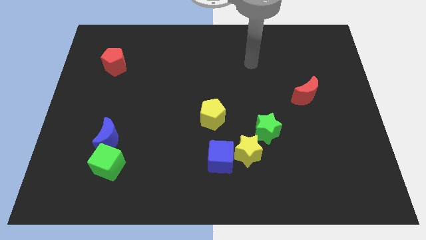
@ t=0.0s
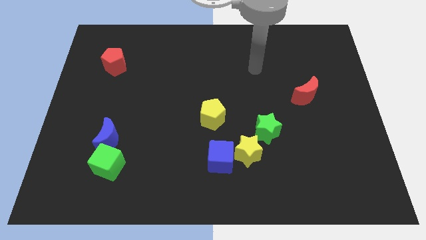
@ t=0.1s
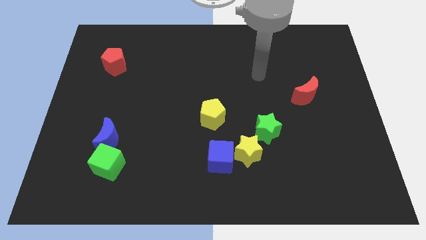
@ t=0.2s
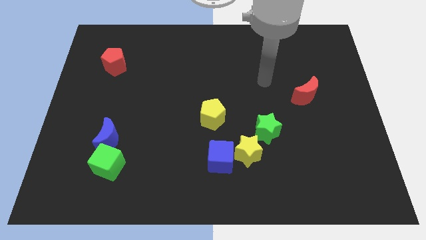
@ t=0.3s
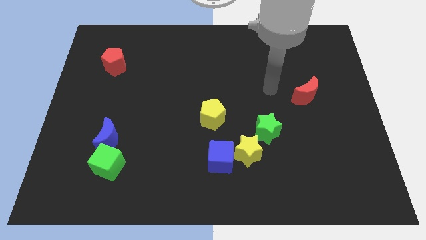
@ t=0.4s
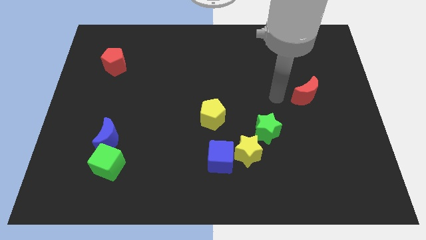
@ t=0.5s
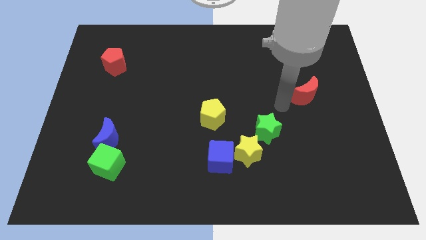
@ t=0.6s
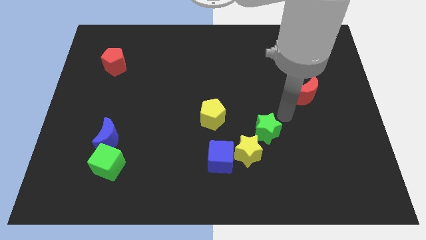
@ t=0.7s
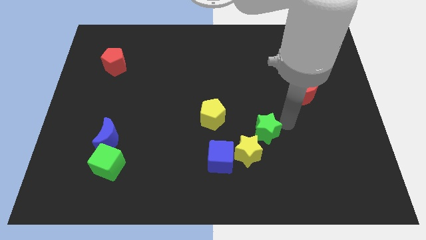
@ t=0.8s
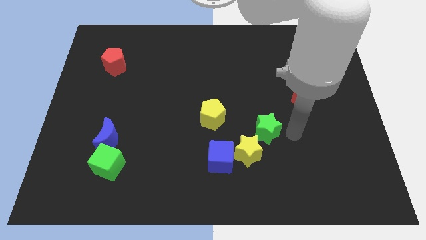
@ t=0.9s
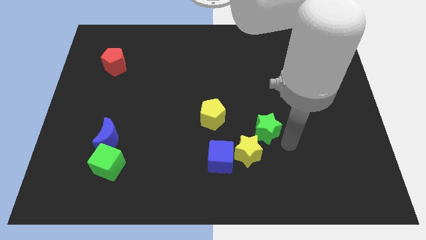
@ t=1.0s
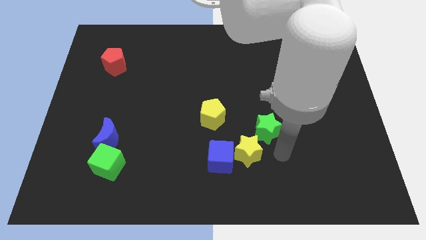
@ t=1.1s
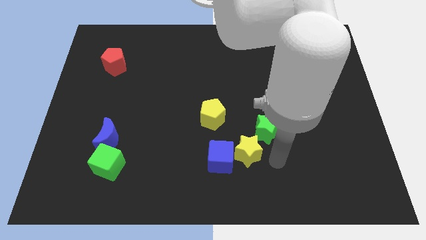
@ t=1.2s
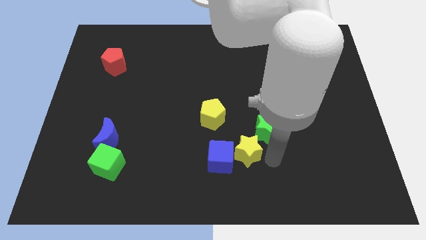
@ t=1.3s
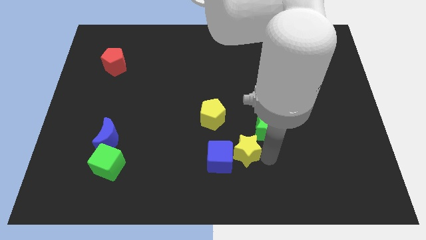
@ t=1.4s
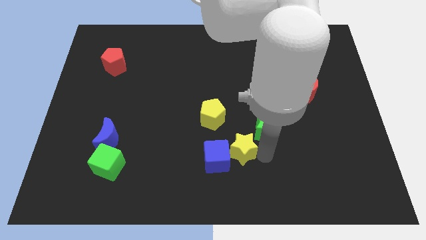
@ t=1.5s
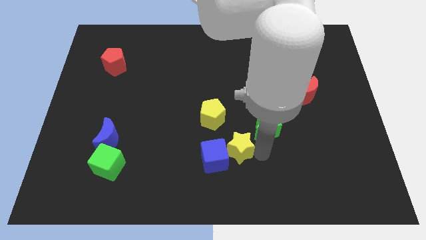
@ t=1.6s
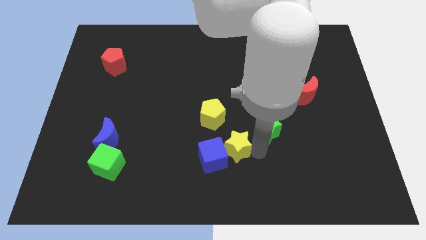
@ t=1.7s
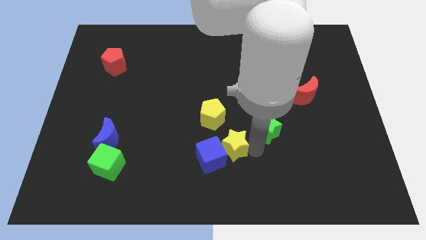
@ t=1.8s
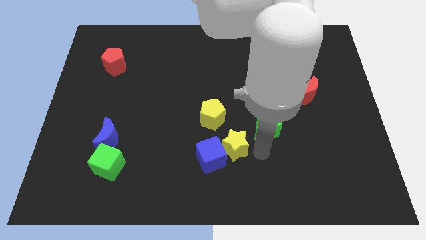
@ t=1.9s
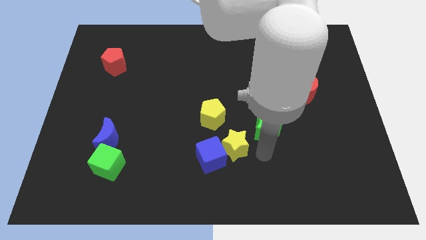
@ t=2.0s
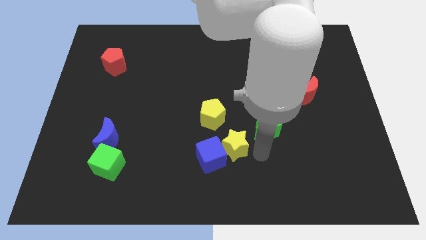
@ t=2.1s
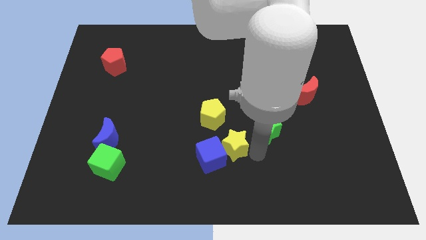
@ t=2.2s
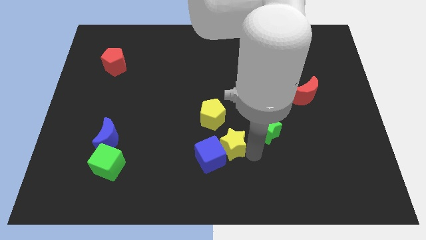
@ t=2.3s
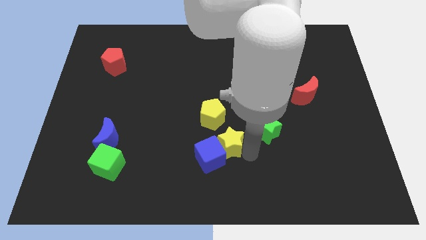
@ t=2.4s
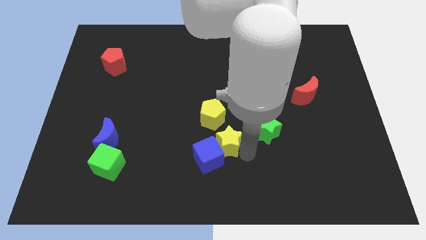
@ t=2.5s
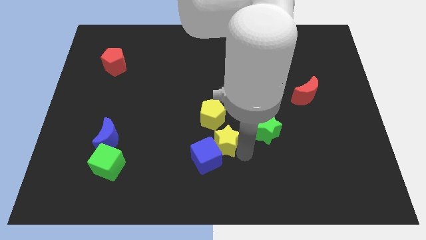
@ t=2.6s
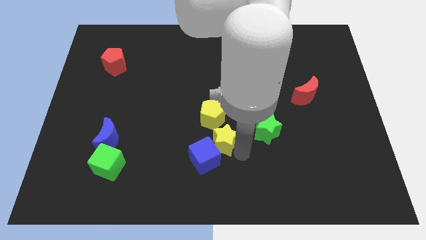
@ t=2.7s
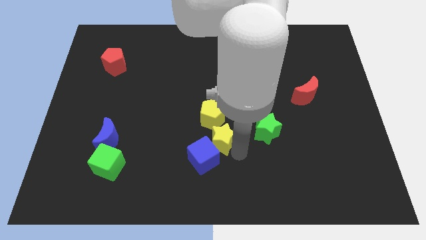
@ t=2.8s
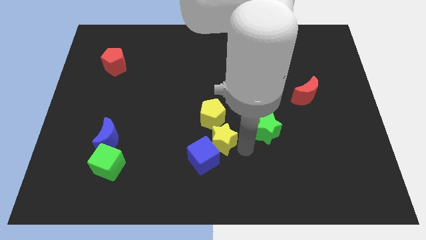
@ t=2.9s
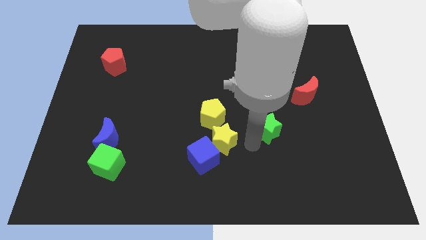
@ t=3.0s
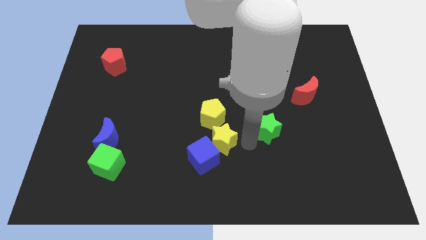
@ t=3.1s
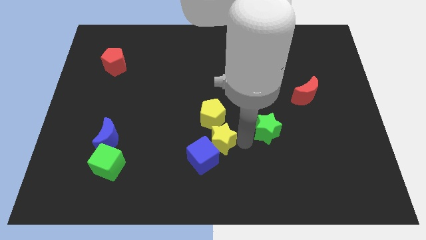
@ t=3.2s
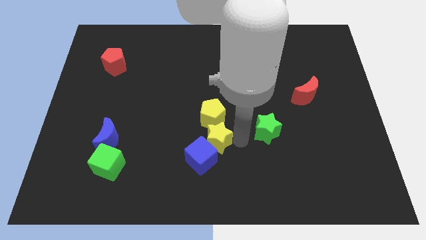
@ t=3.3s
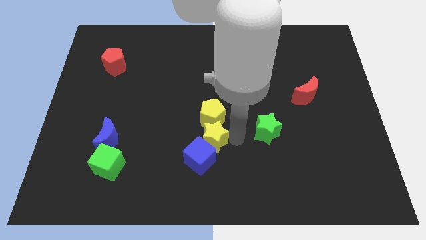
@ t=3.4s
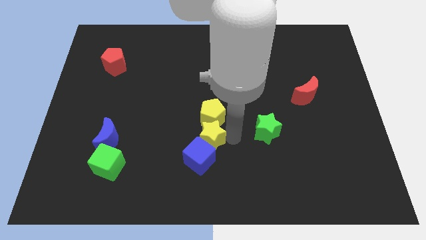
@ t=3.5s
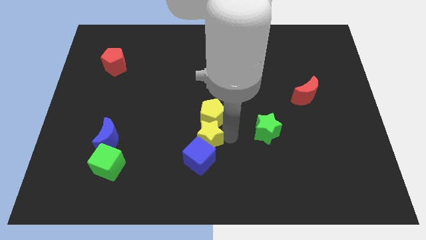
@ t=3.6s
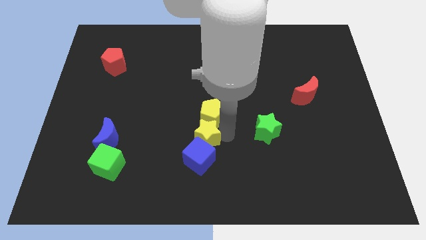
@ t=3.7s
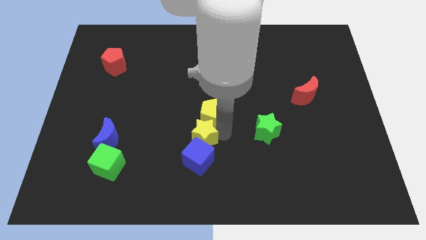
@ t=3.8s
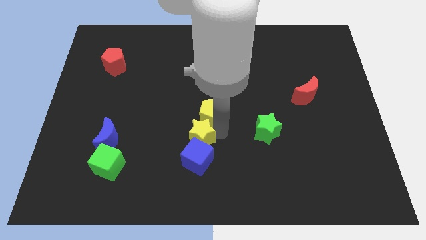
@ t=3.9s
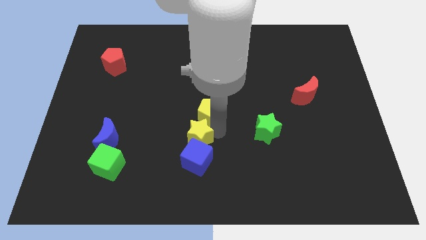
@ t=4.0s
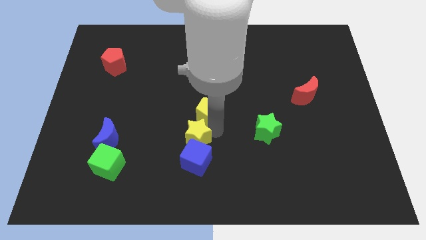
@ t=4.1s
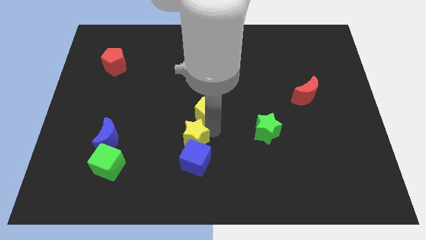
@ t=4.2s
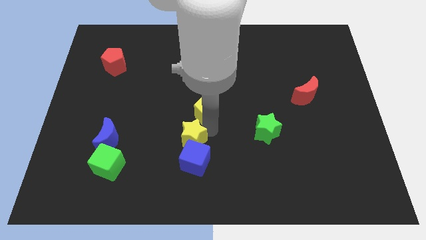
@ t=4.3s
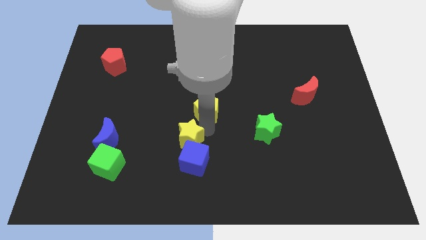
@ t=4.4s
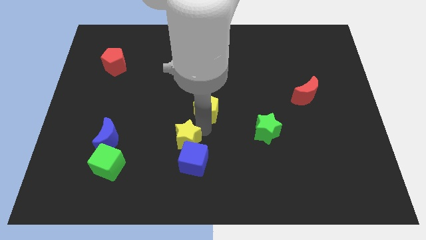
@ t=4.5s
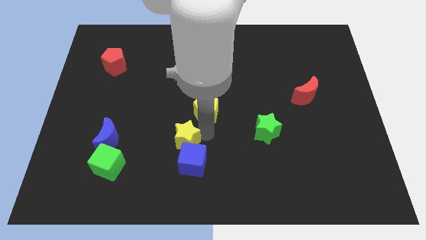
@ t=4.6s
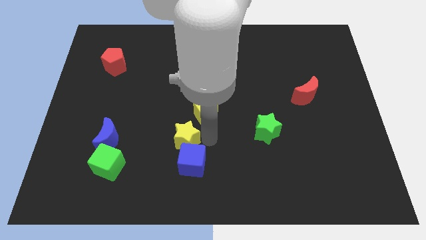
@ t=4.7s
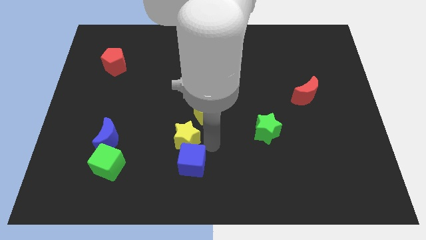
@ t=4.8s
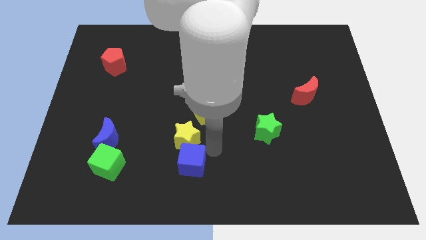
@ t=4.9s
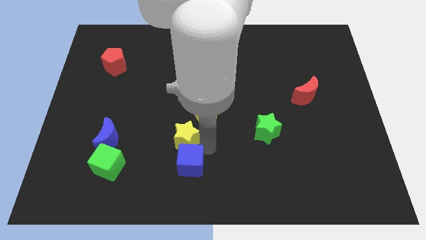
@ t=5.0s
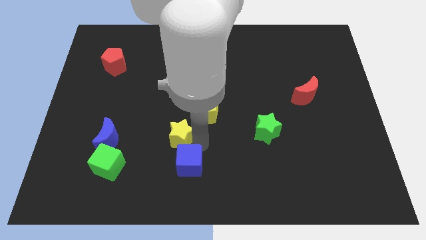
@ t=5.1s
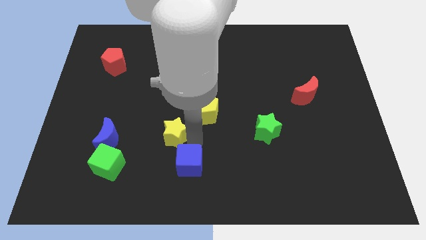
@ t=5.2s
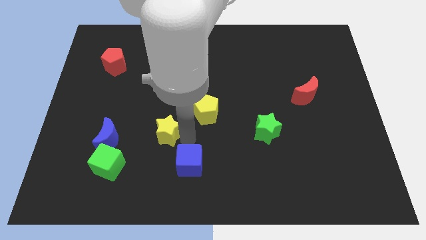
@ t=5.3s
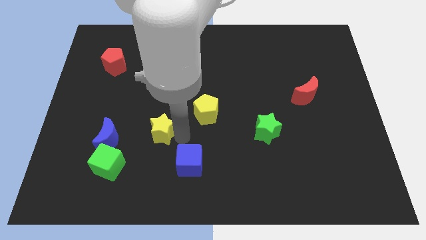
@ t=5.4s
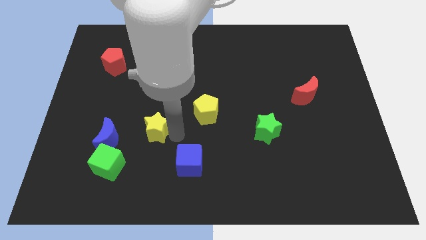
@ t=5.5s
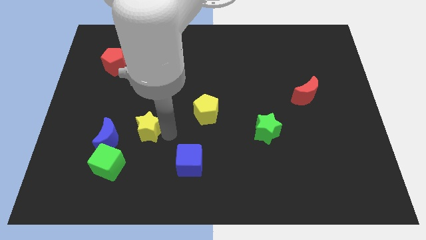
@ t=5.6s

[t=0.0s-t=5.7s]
put the yellow star to the top right side of the blue moon

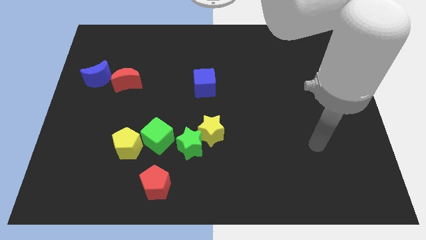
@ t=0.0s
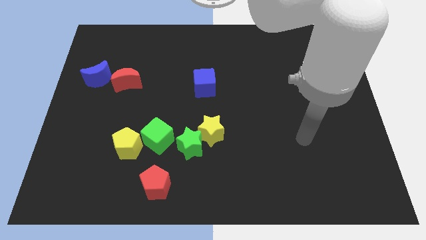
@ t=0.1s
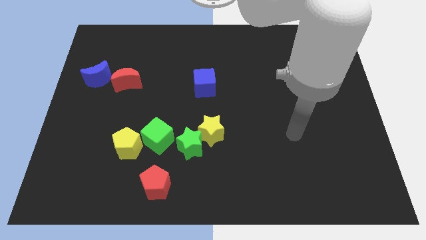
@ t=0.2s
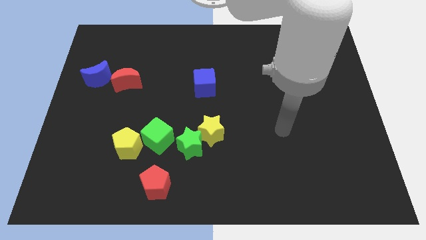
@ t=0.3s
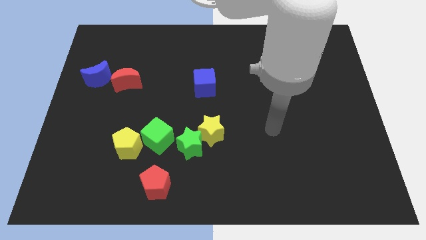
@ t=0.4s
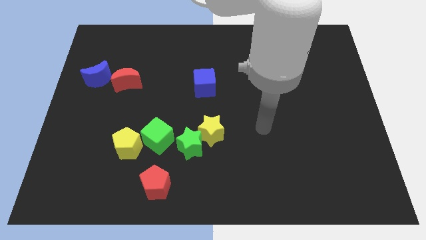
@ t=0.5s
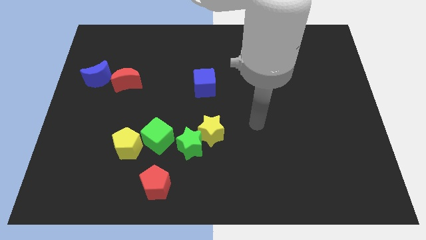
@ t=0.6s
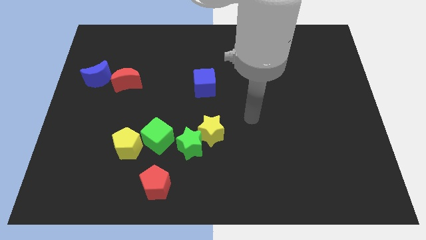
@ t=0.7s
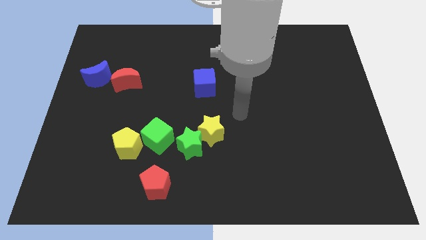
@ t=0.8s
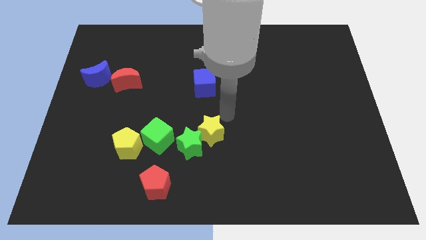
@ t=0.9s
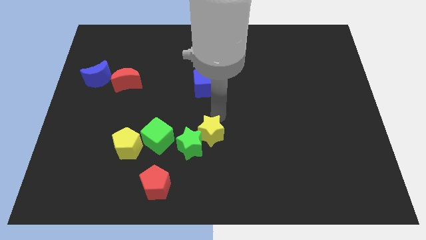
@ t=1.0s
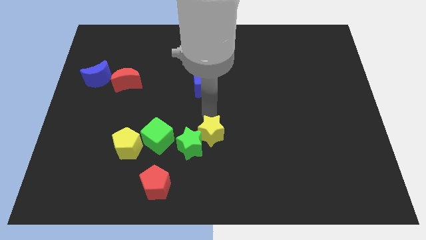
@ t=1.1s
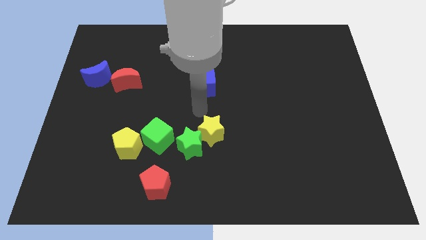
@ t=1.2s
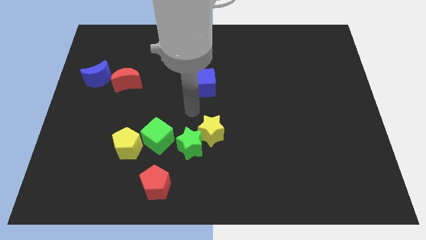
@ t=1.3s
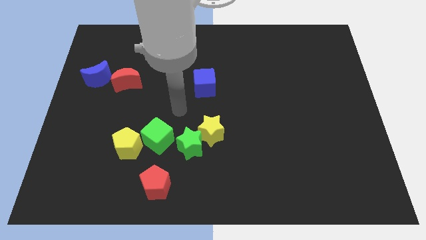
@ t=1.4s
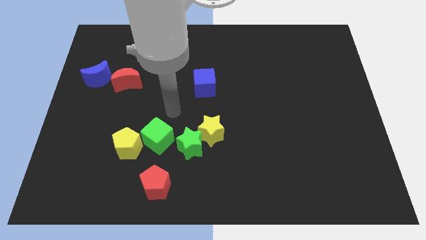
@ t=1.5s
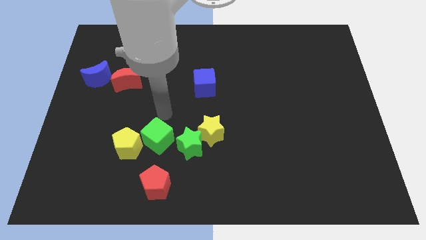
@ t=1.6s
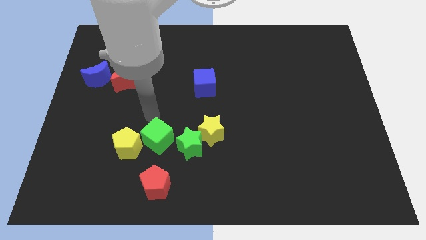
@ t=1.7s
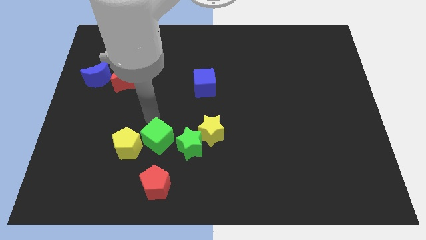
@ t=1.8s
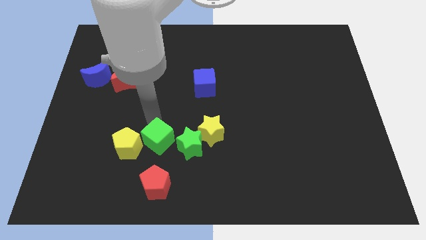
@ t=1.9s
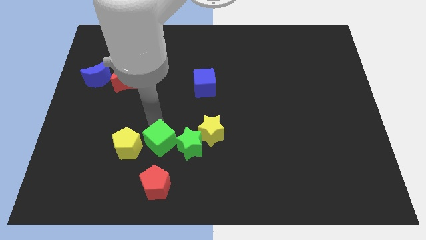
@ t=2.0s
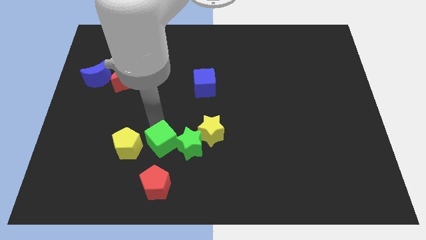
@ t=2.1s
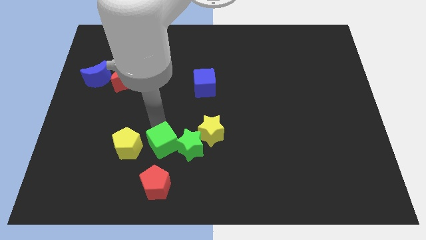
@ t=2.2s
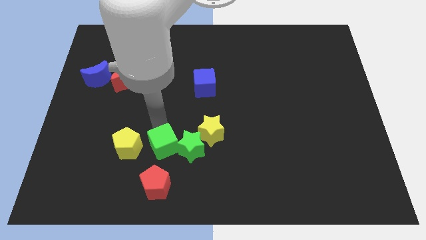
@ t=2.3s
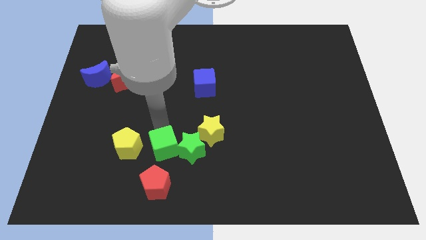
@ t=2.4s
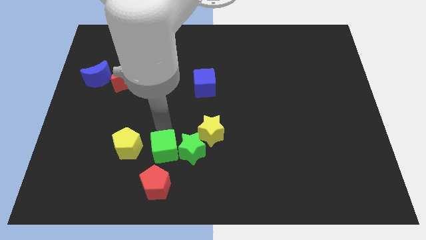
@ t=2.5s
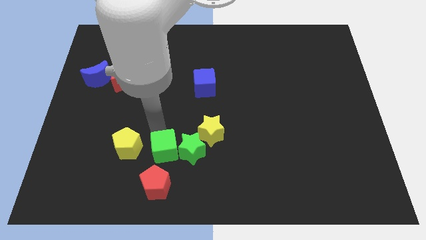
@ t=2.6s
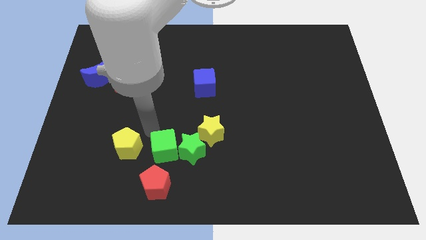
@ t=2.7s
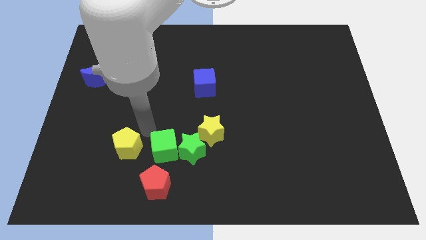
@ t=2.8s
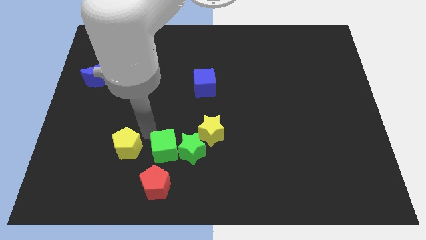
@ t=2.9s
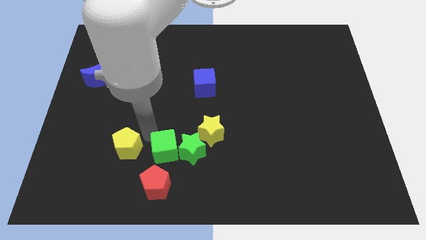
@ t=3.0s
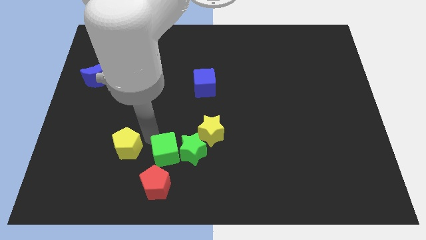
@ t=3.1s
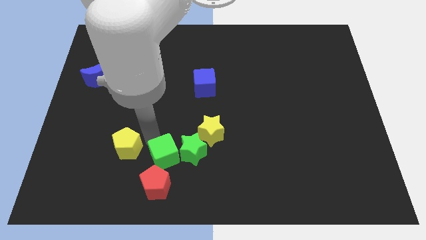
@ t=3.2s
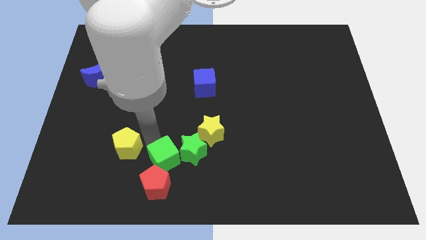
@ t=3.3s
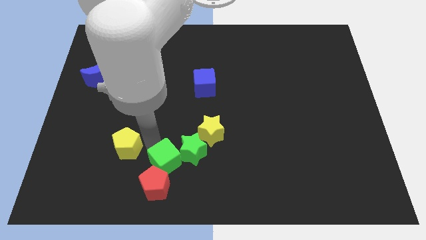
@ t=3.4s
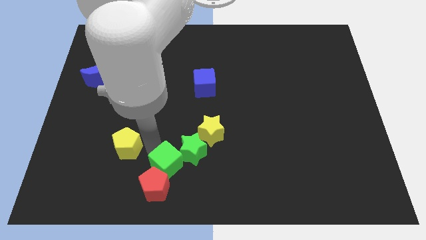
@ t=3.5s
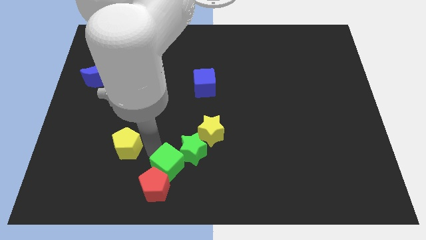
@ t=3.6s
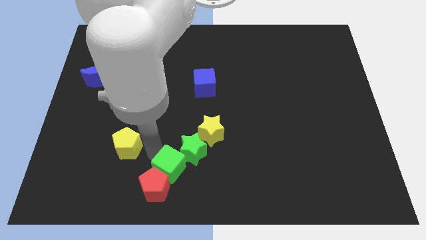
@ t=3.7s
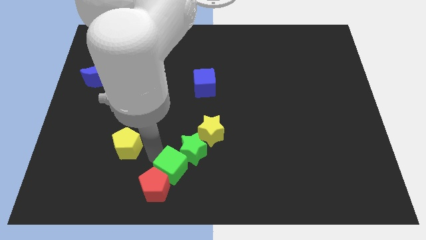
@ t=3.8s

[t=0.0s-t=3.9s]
move the green cube just right of the red pentagon
